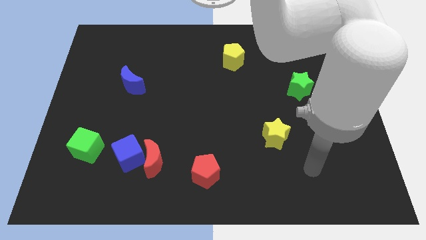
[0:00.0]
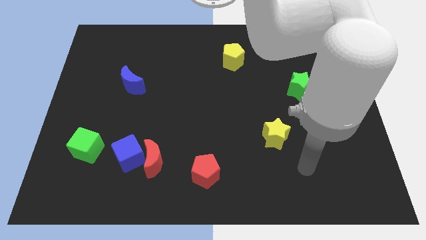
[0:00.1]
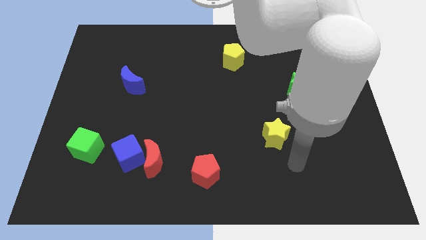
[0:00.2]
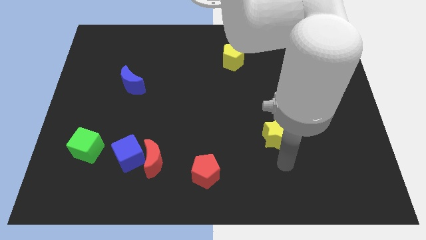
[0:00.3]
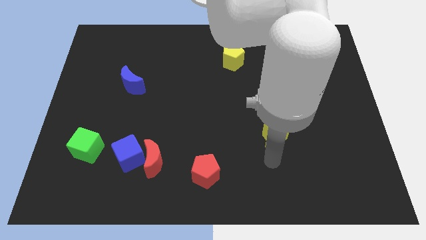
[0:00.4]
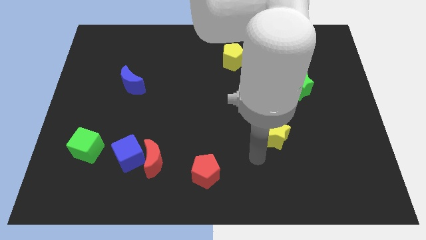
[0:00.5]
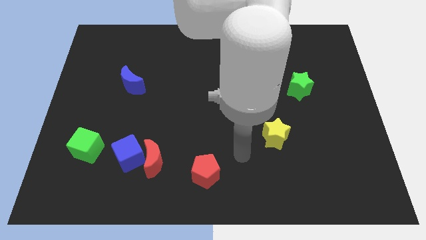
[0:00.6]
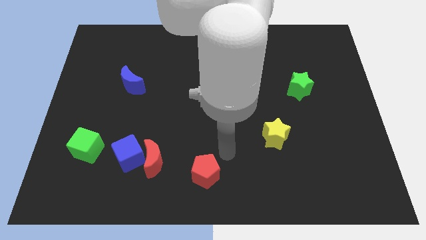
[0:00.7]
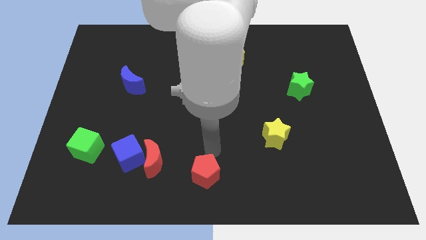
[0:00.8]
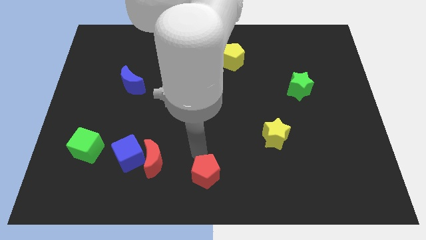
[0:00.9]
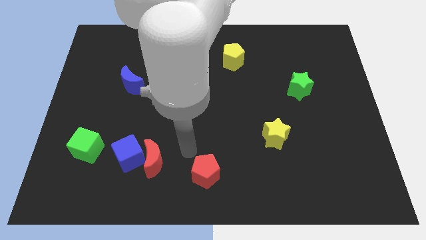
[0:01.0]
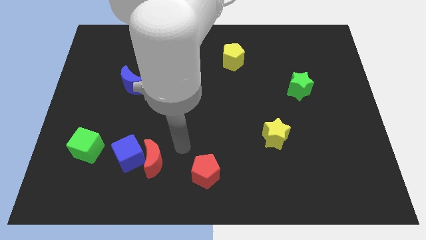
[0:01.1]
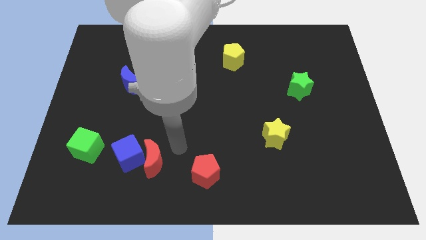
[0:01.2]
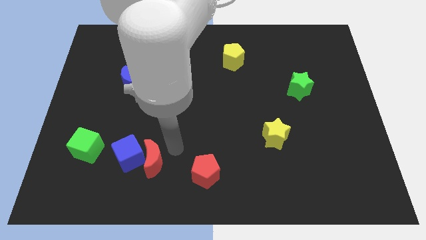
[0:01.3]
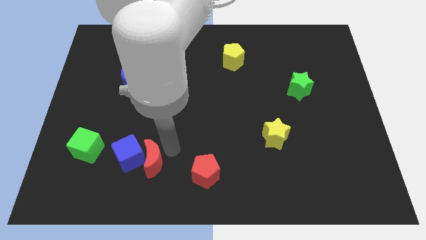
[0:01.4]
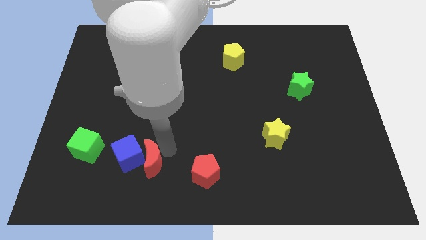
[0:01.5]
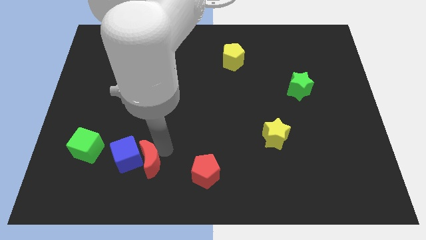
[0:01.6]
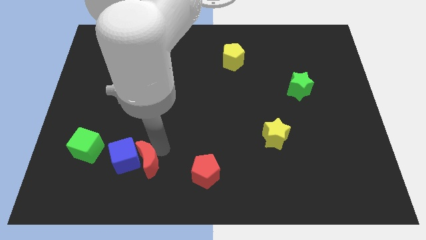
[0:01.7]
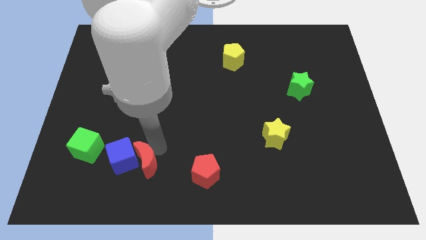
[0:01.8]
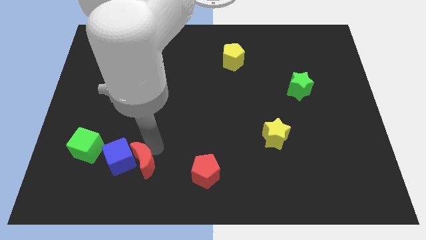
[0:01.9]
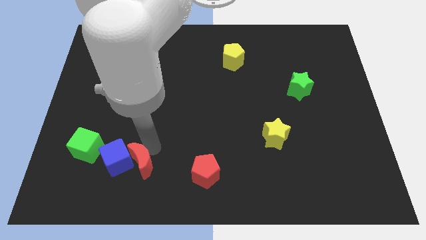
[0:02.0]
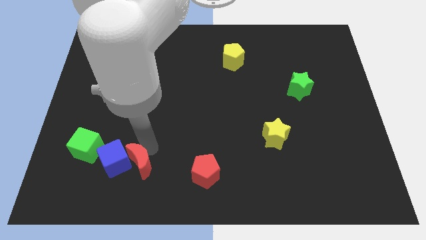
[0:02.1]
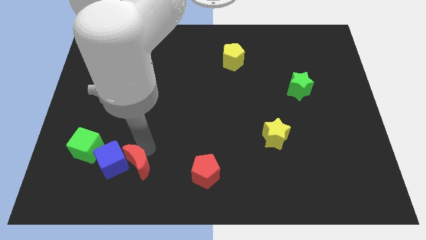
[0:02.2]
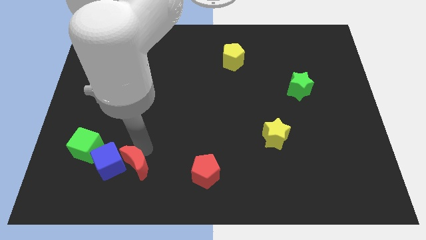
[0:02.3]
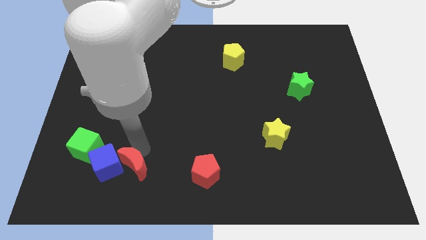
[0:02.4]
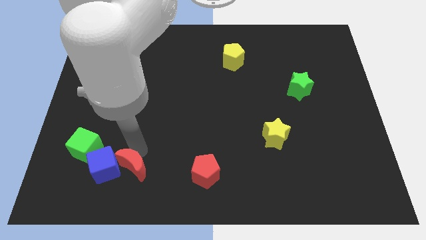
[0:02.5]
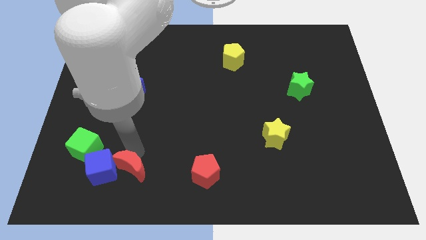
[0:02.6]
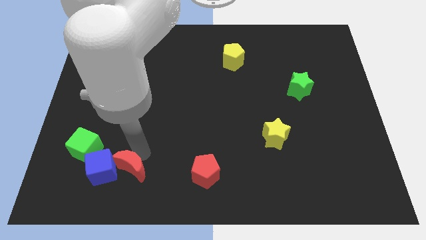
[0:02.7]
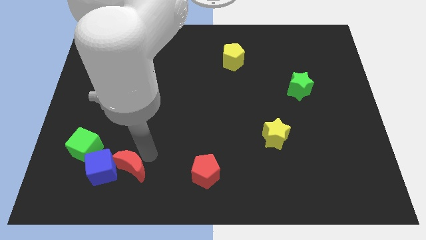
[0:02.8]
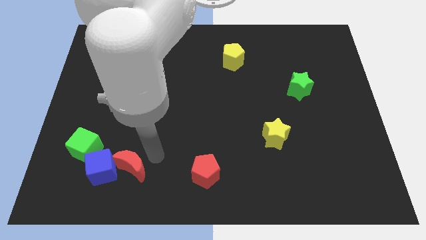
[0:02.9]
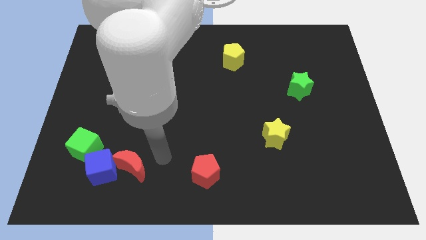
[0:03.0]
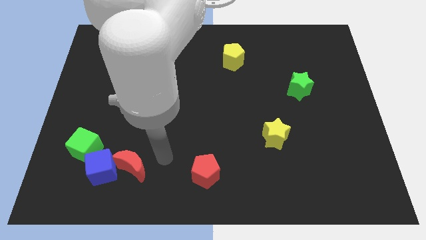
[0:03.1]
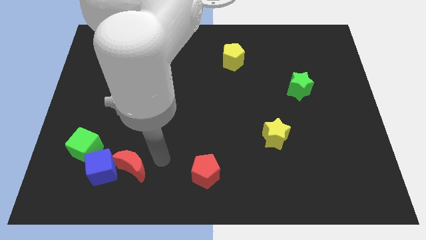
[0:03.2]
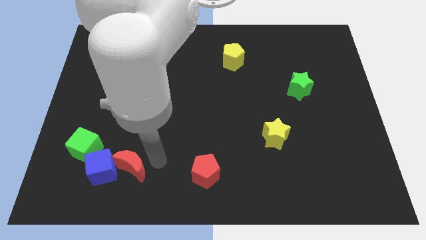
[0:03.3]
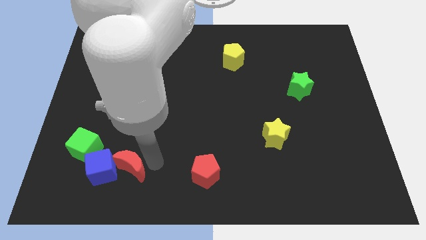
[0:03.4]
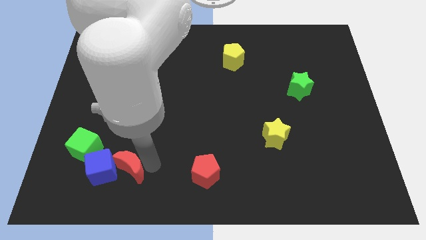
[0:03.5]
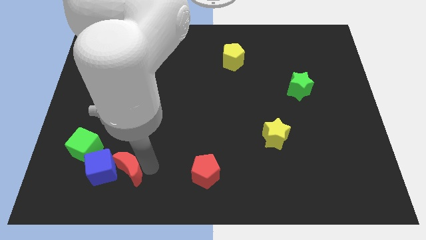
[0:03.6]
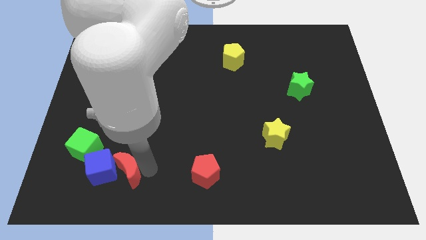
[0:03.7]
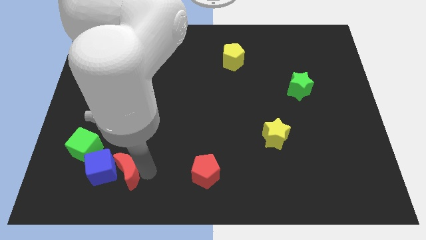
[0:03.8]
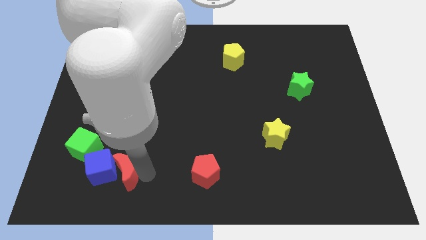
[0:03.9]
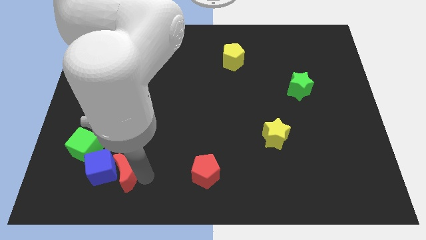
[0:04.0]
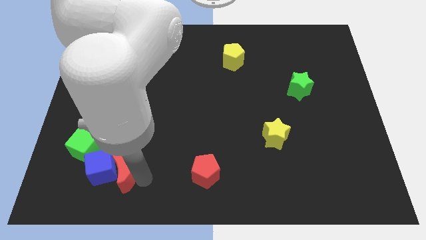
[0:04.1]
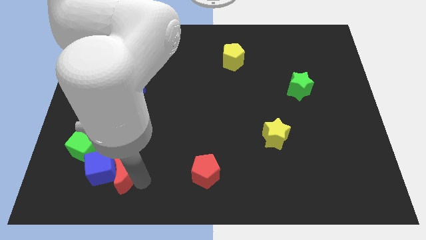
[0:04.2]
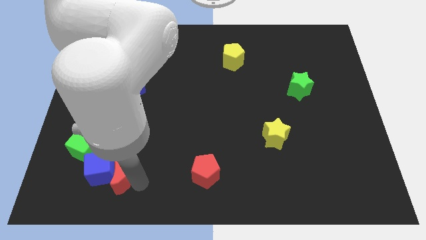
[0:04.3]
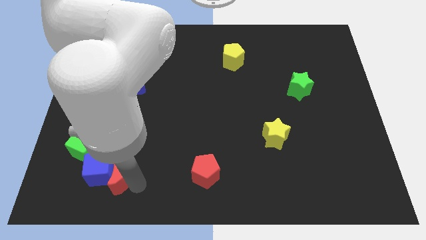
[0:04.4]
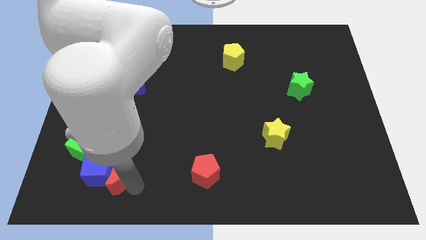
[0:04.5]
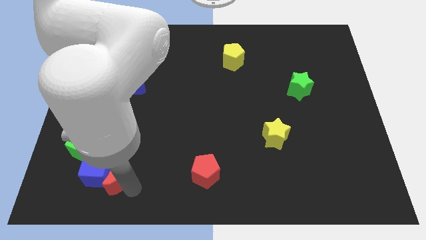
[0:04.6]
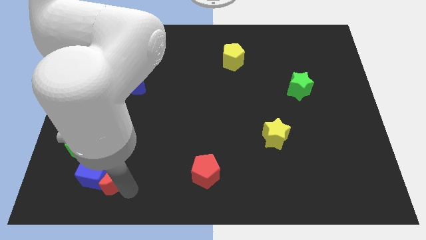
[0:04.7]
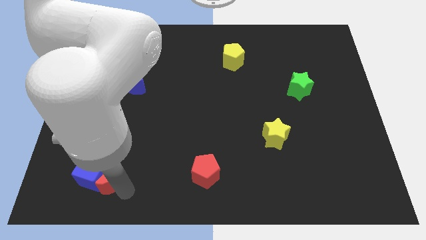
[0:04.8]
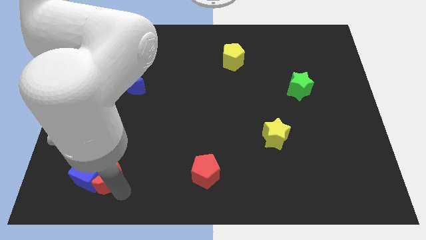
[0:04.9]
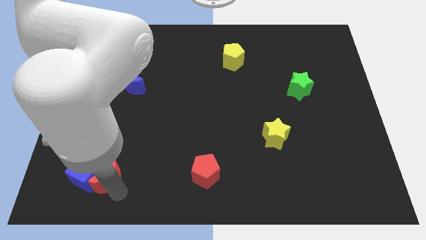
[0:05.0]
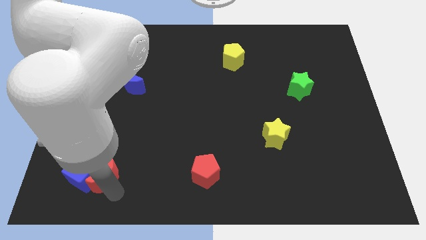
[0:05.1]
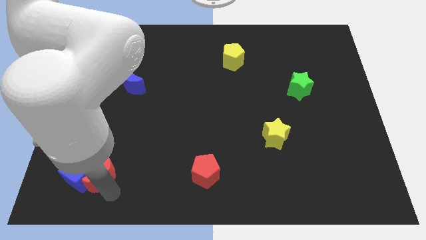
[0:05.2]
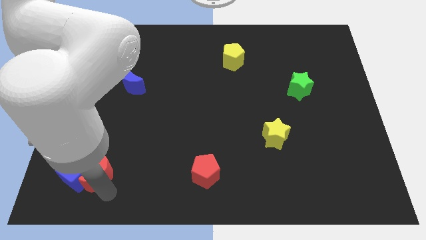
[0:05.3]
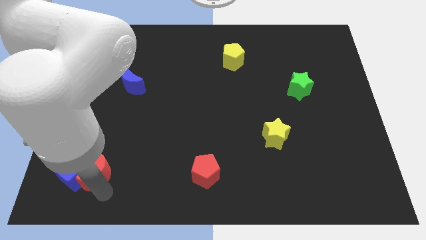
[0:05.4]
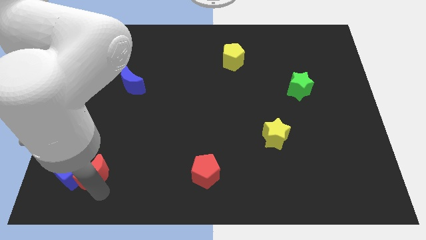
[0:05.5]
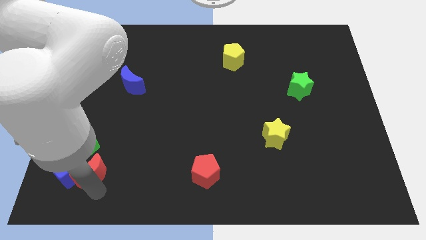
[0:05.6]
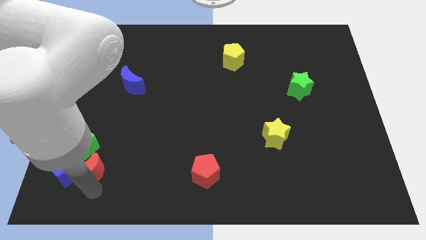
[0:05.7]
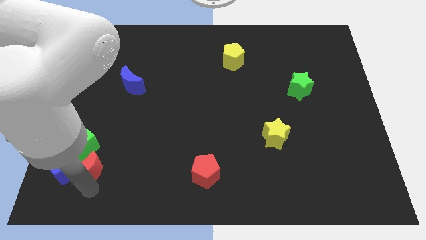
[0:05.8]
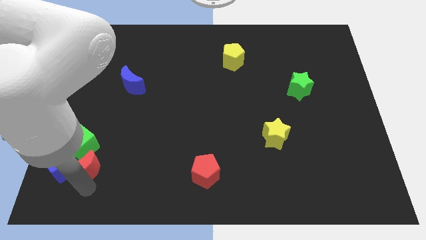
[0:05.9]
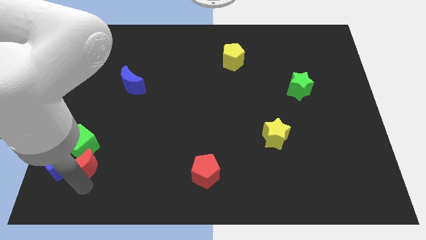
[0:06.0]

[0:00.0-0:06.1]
move the red moon next to the green cube

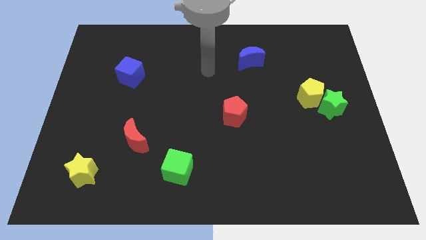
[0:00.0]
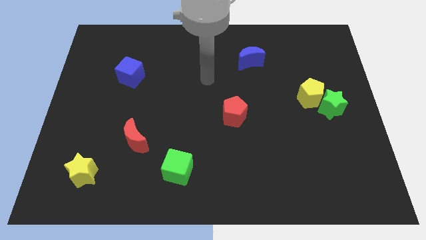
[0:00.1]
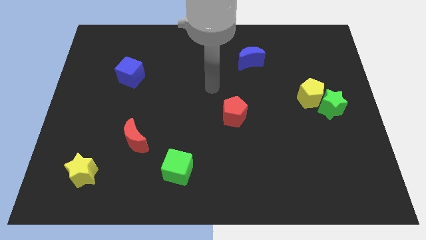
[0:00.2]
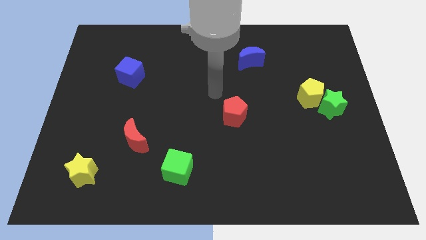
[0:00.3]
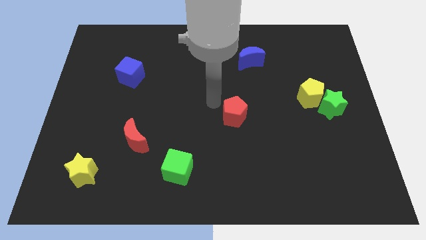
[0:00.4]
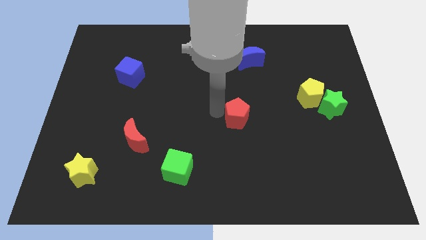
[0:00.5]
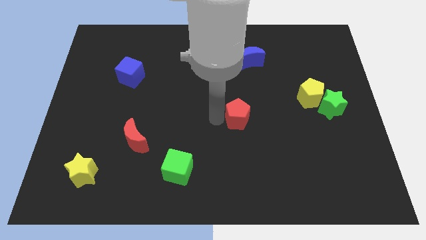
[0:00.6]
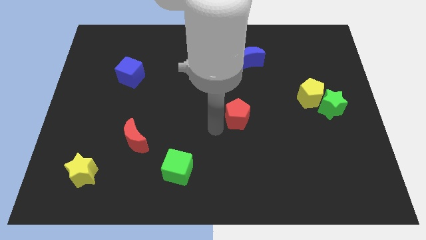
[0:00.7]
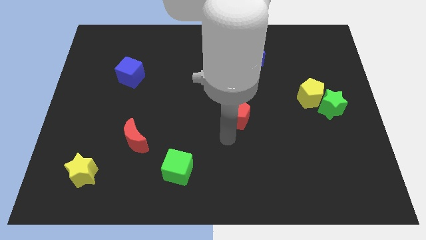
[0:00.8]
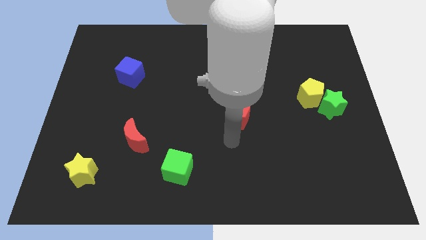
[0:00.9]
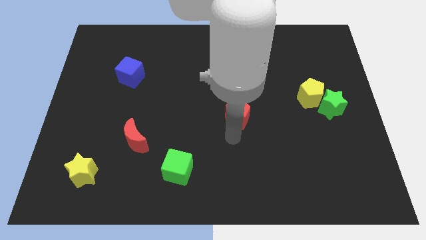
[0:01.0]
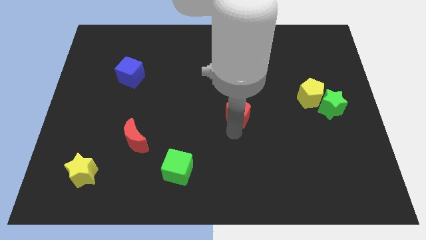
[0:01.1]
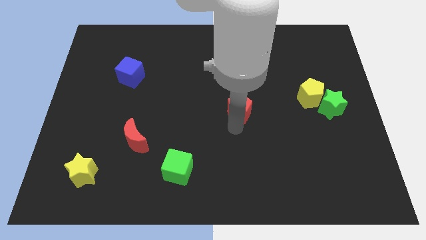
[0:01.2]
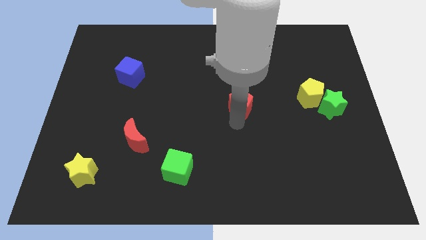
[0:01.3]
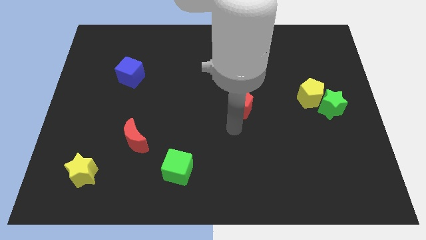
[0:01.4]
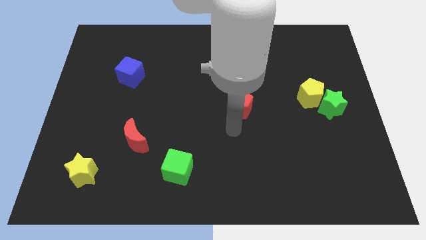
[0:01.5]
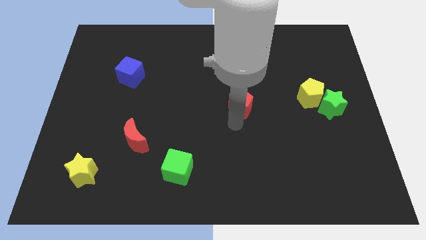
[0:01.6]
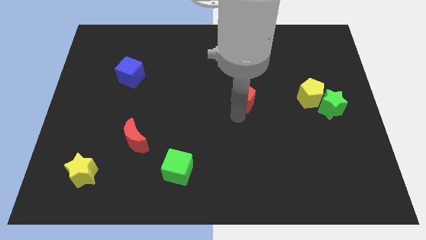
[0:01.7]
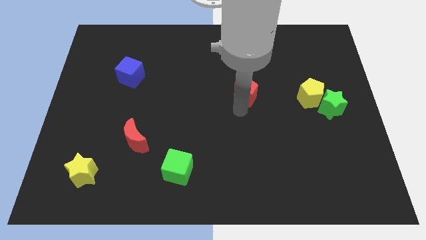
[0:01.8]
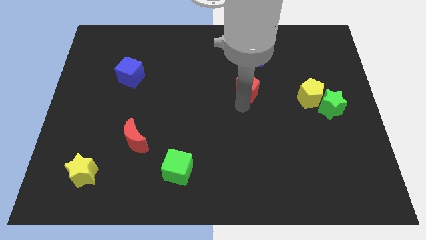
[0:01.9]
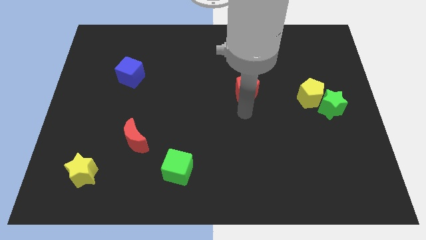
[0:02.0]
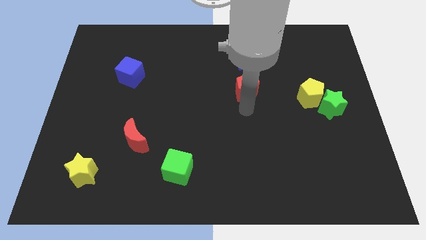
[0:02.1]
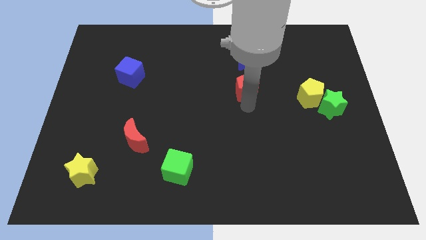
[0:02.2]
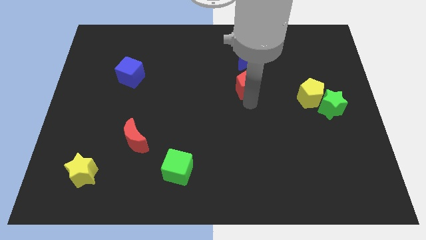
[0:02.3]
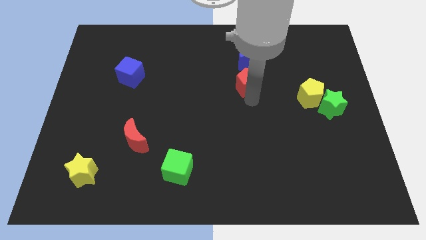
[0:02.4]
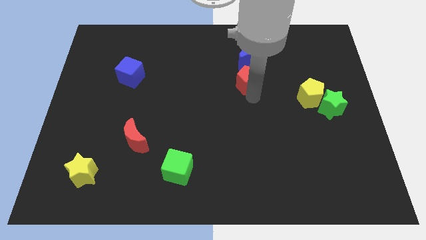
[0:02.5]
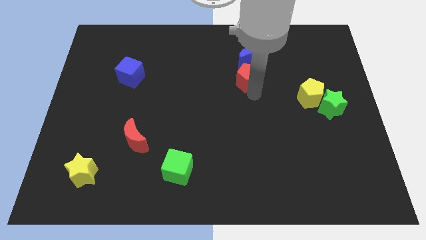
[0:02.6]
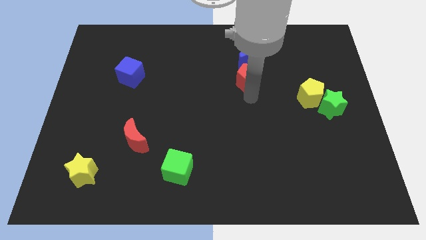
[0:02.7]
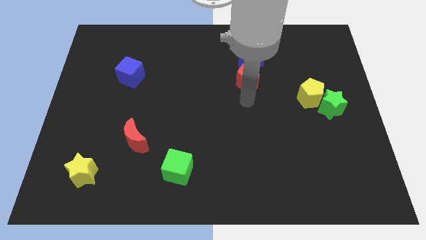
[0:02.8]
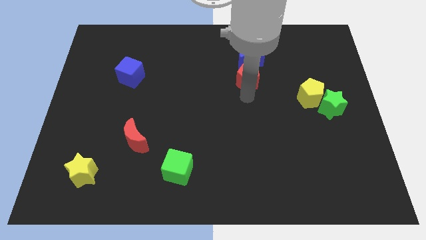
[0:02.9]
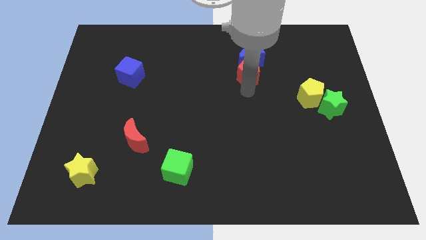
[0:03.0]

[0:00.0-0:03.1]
put the red pentagon close to the blue moon
